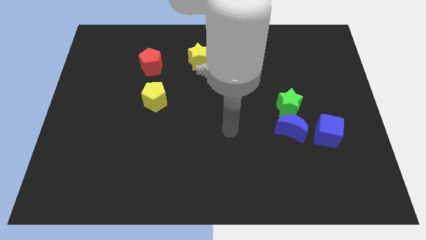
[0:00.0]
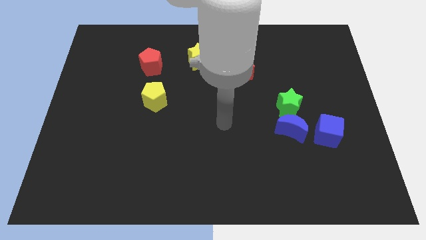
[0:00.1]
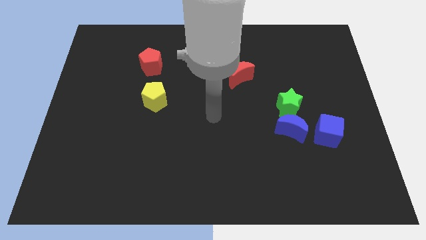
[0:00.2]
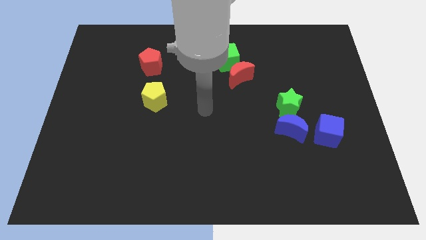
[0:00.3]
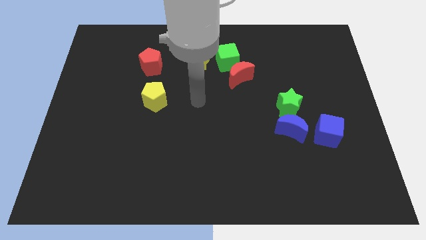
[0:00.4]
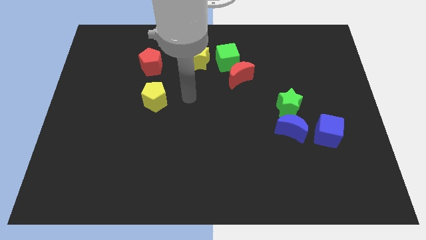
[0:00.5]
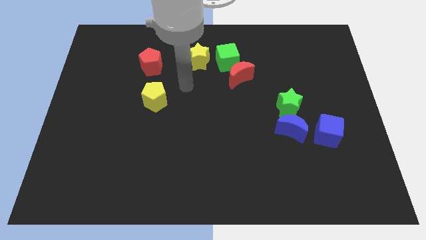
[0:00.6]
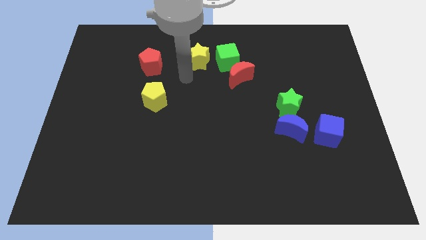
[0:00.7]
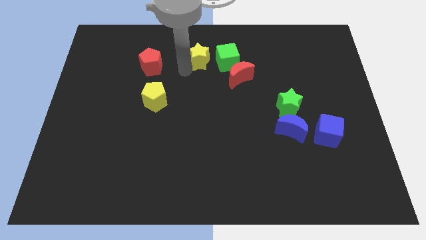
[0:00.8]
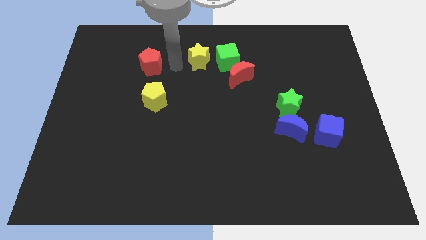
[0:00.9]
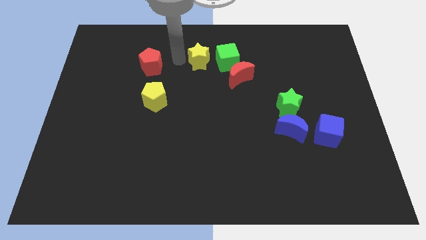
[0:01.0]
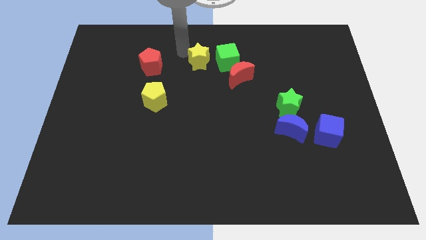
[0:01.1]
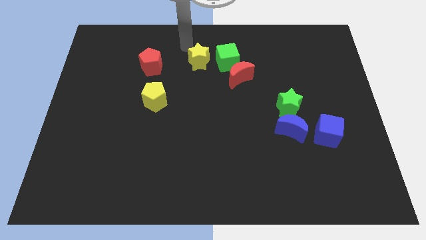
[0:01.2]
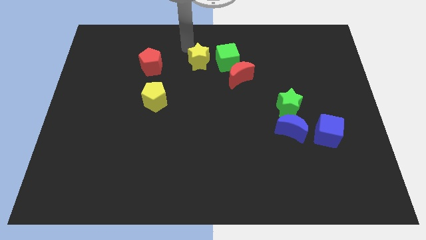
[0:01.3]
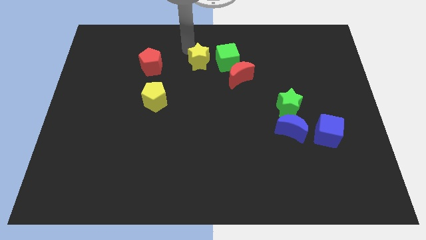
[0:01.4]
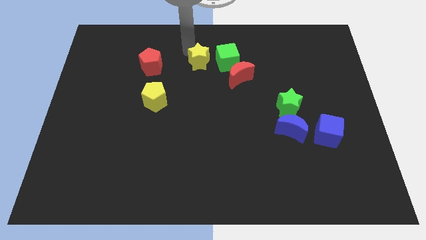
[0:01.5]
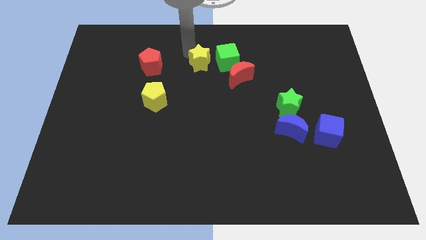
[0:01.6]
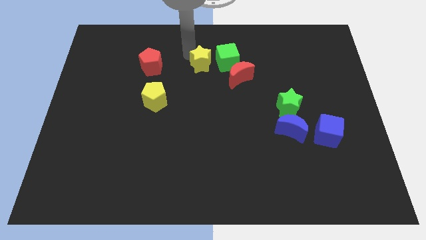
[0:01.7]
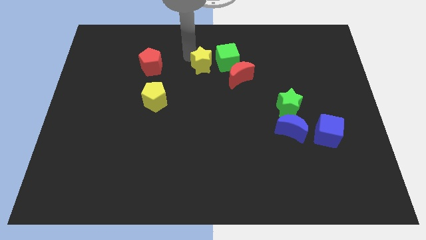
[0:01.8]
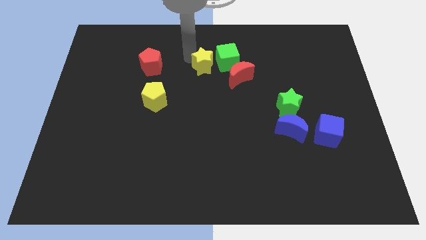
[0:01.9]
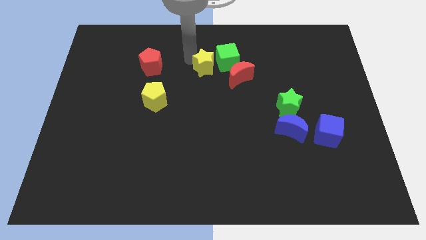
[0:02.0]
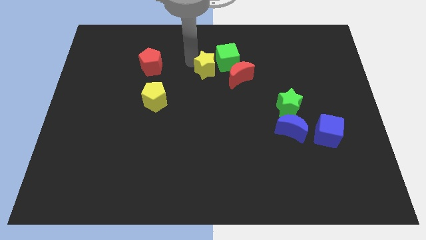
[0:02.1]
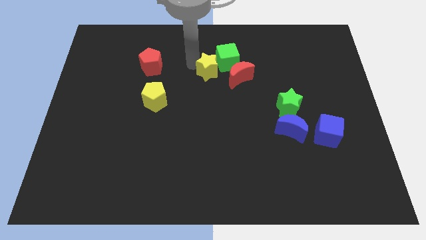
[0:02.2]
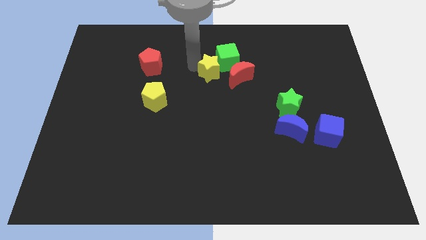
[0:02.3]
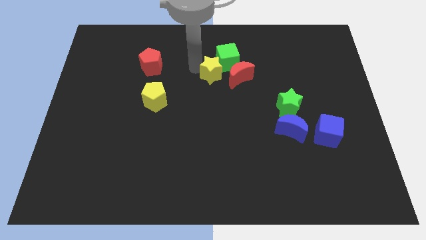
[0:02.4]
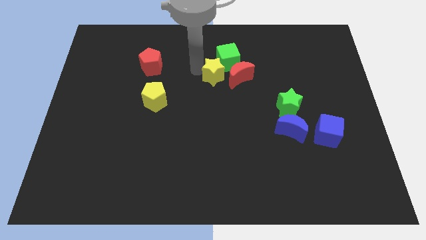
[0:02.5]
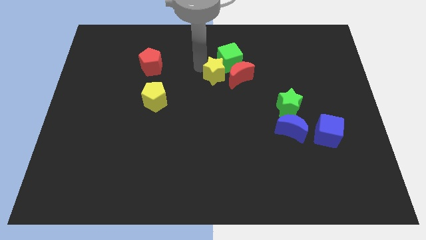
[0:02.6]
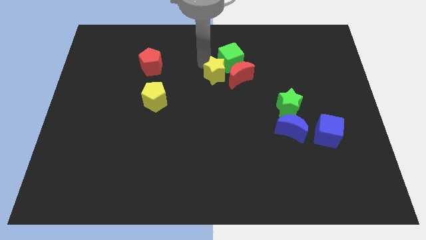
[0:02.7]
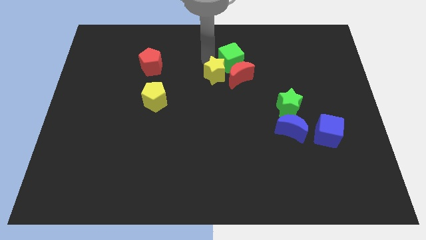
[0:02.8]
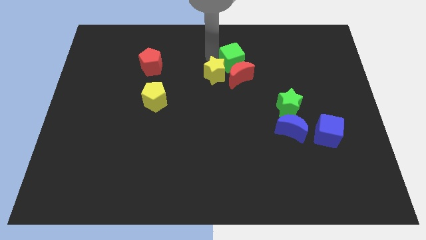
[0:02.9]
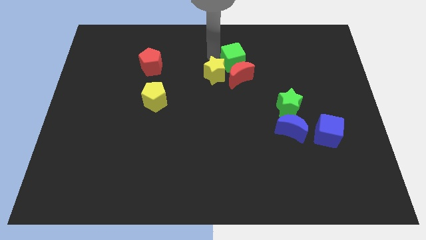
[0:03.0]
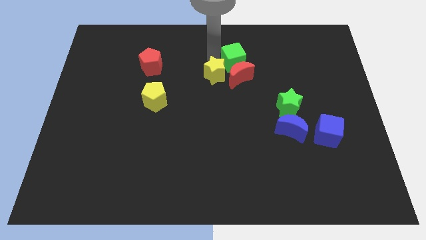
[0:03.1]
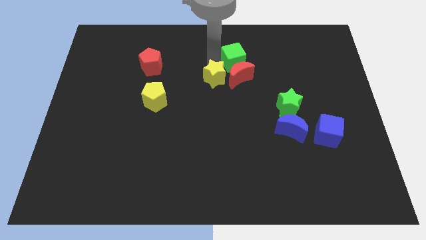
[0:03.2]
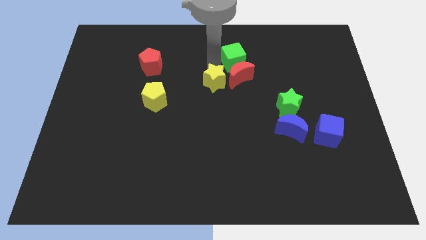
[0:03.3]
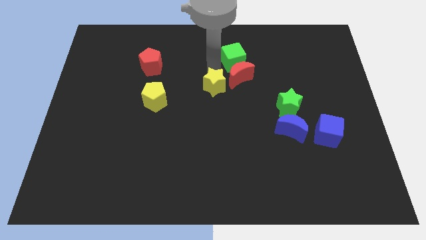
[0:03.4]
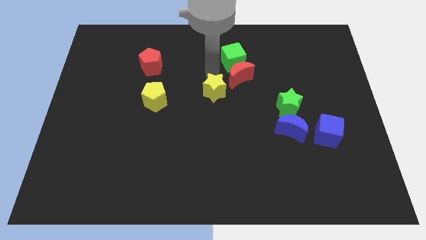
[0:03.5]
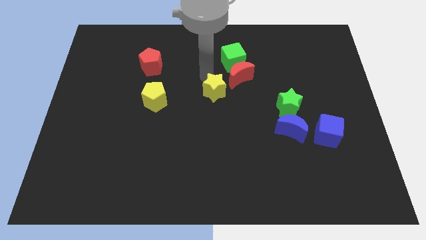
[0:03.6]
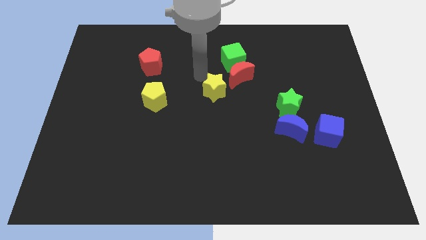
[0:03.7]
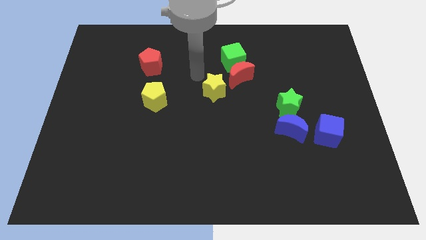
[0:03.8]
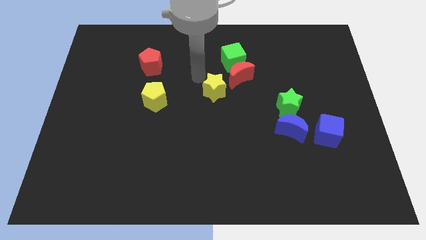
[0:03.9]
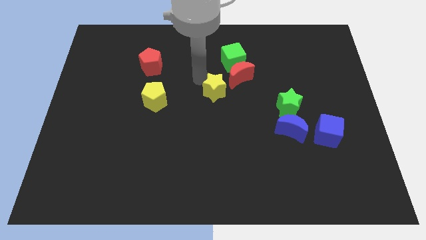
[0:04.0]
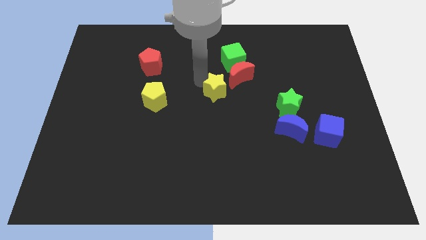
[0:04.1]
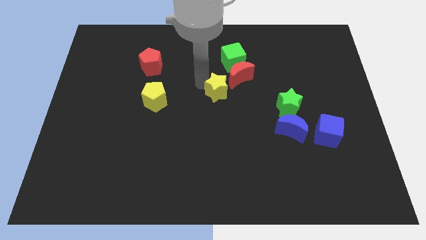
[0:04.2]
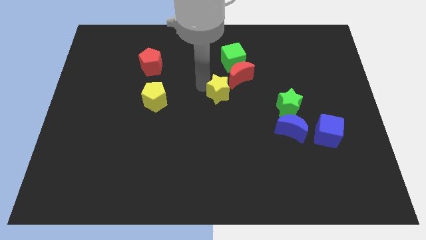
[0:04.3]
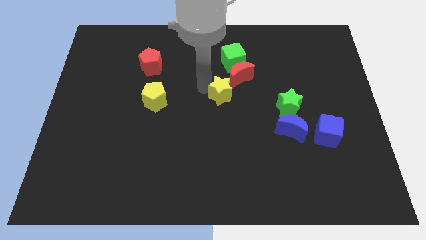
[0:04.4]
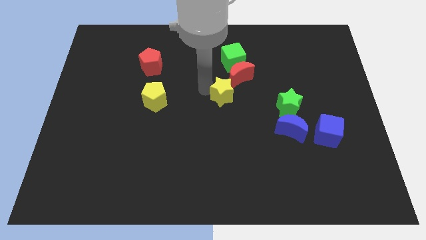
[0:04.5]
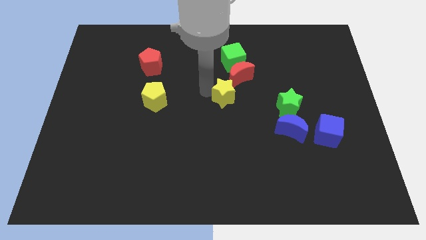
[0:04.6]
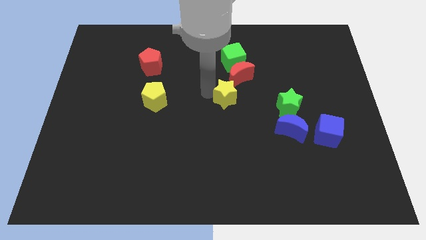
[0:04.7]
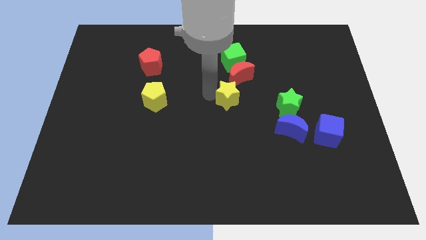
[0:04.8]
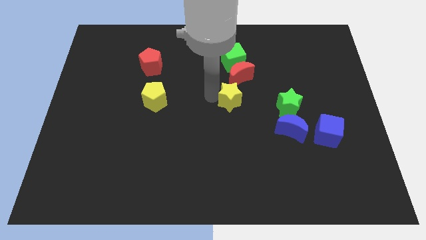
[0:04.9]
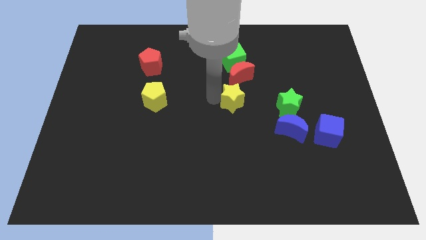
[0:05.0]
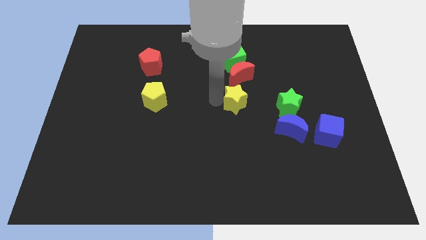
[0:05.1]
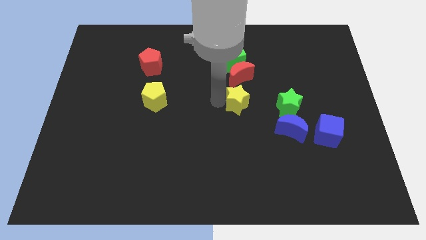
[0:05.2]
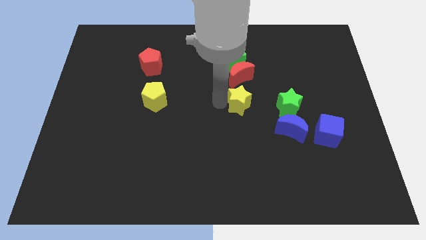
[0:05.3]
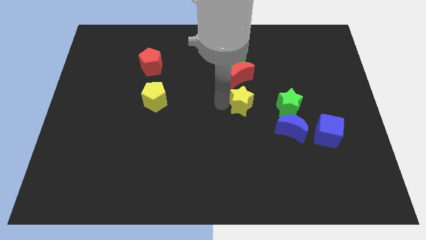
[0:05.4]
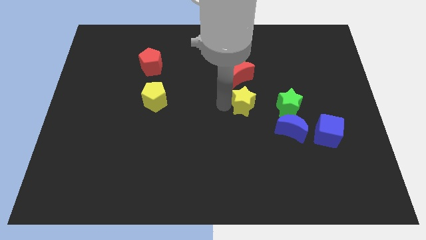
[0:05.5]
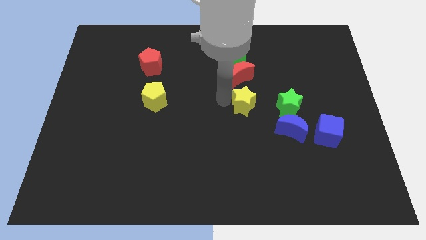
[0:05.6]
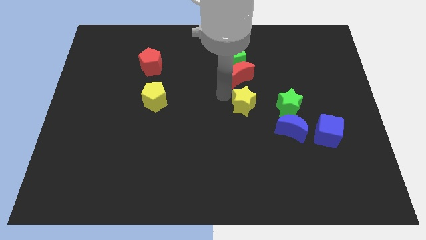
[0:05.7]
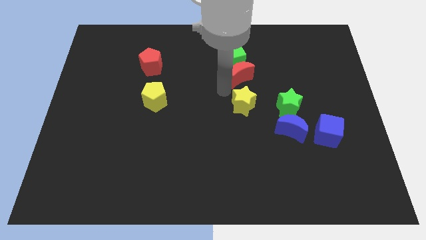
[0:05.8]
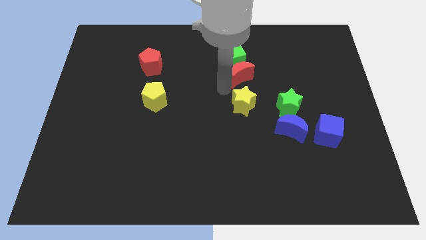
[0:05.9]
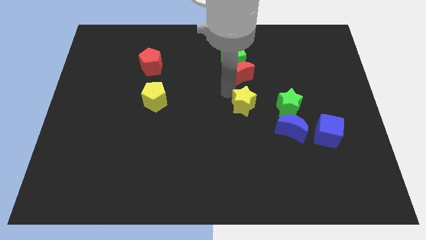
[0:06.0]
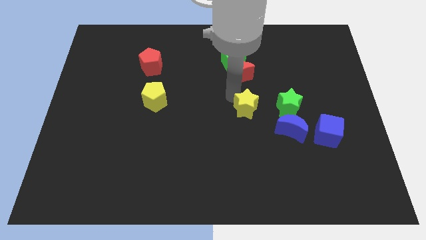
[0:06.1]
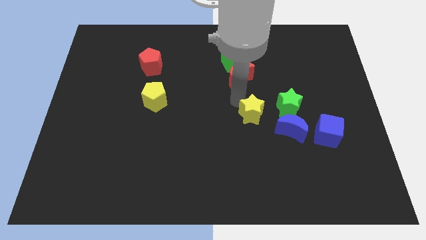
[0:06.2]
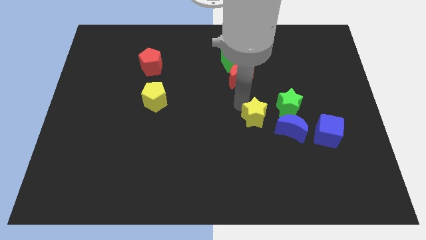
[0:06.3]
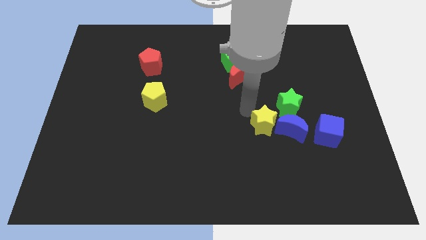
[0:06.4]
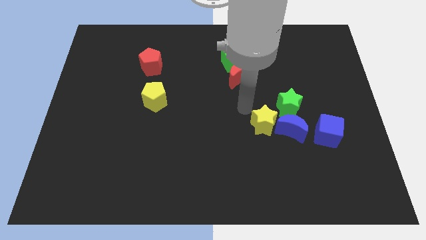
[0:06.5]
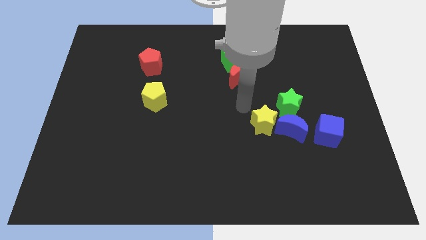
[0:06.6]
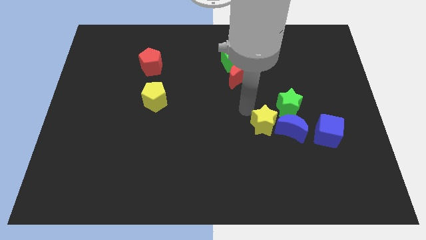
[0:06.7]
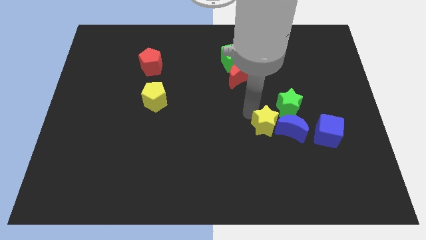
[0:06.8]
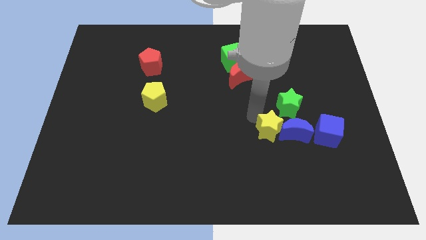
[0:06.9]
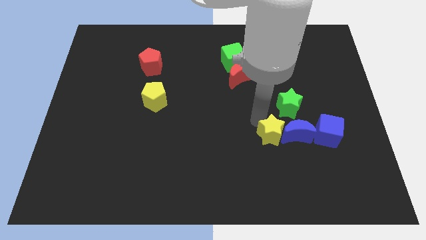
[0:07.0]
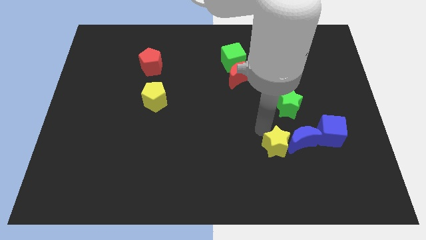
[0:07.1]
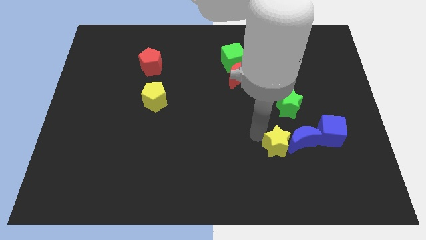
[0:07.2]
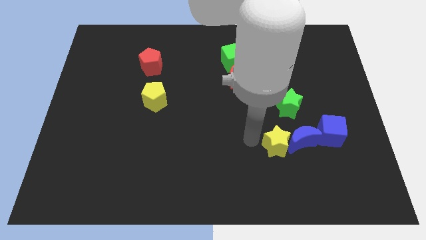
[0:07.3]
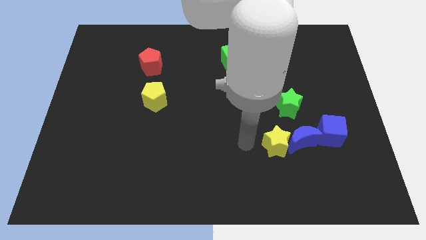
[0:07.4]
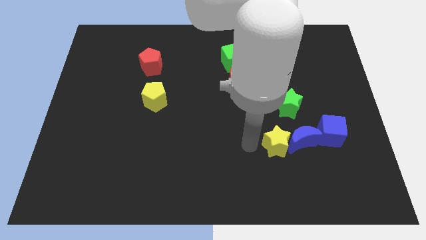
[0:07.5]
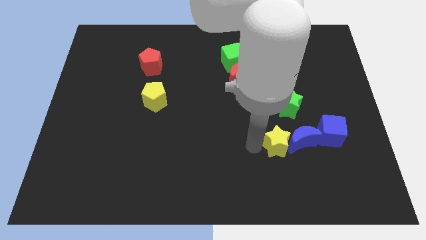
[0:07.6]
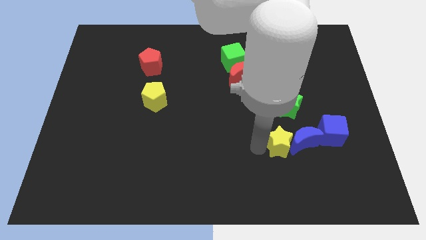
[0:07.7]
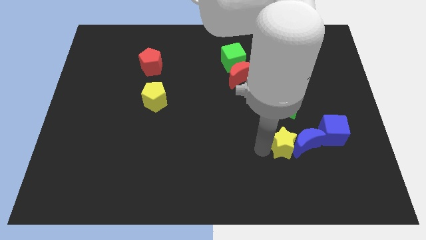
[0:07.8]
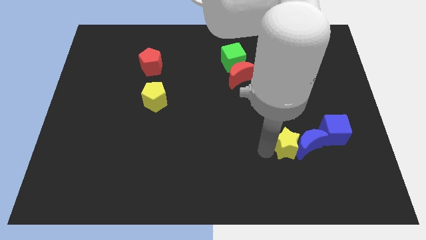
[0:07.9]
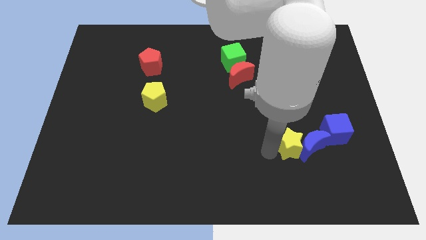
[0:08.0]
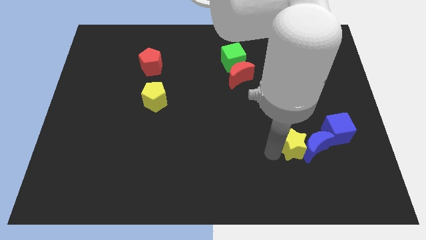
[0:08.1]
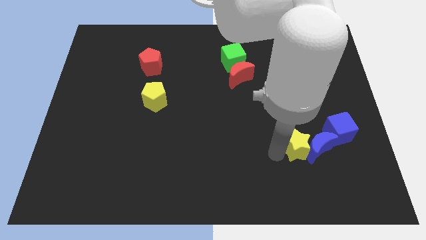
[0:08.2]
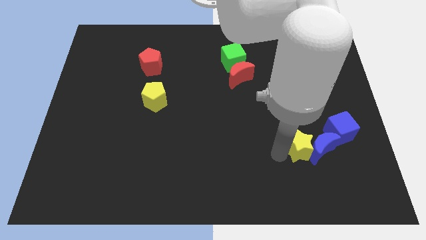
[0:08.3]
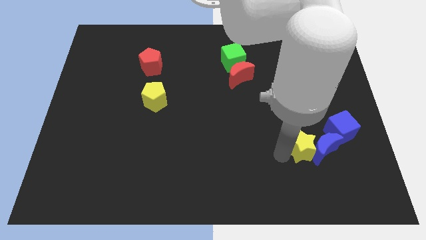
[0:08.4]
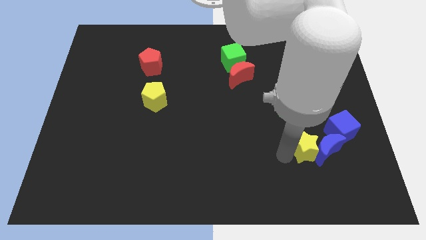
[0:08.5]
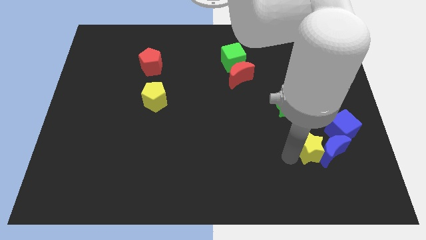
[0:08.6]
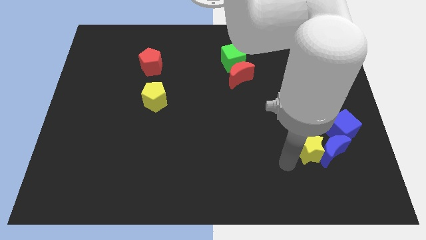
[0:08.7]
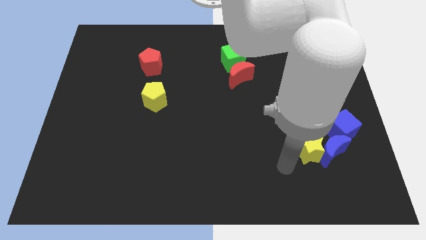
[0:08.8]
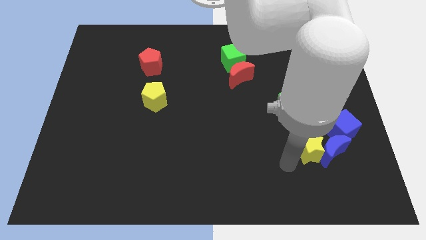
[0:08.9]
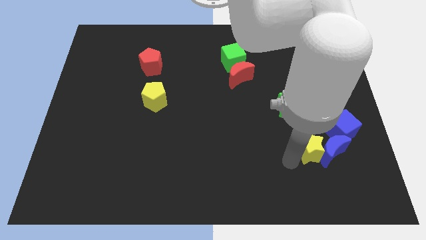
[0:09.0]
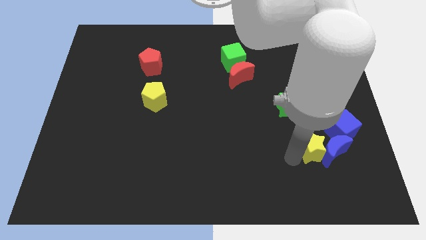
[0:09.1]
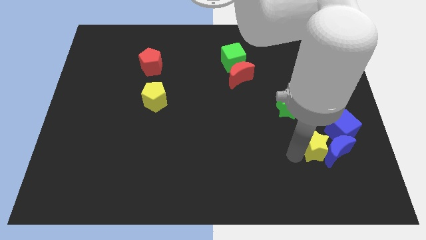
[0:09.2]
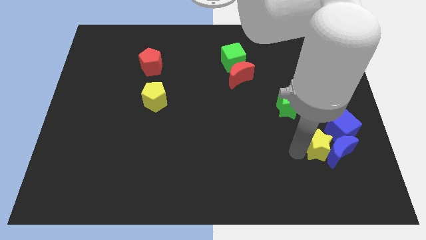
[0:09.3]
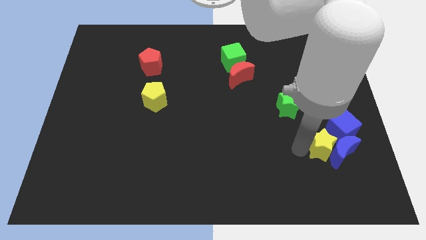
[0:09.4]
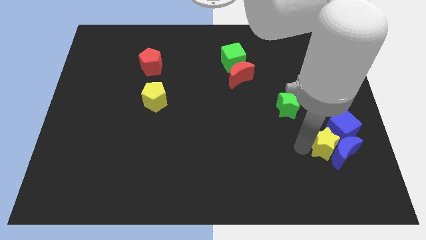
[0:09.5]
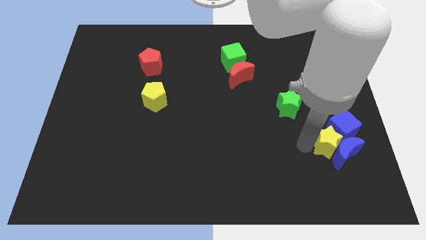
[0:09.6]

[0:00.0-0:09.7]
move the yellow star to the blue cube
